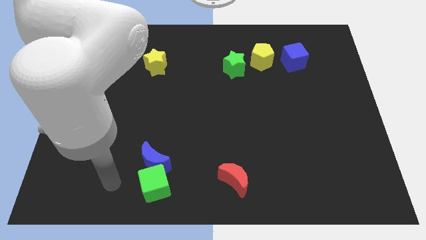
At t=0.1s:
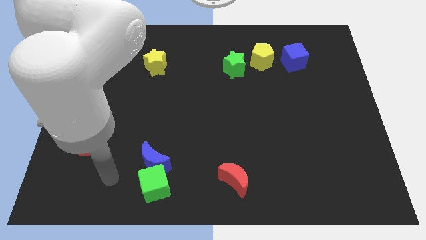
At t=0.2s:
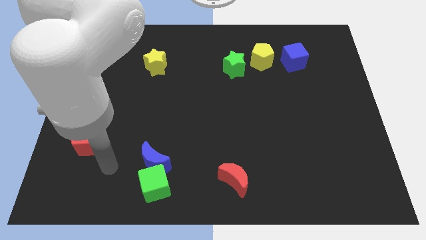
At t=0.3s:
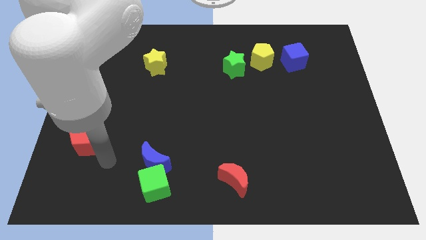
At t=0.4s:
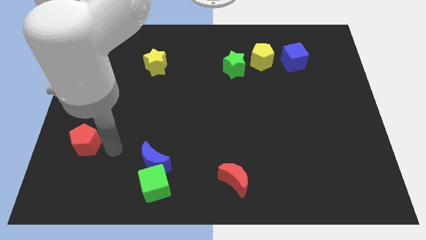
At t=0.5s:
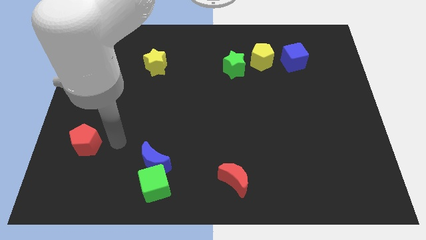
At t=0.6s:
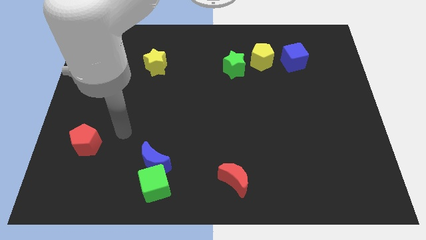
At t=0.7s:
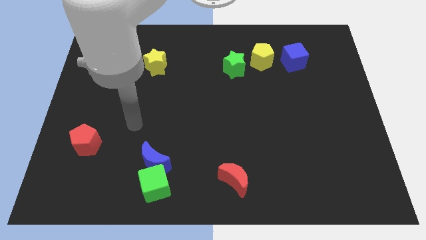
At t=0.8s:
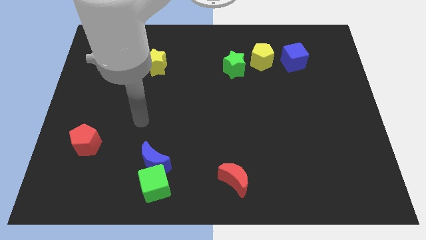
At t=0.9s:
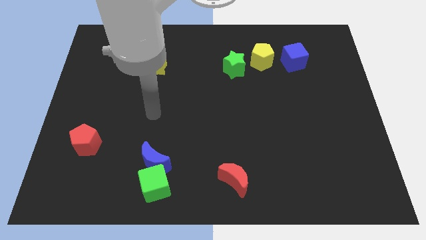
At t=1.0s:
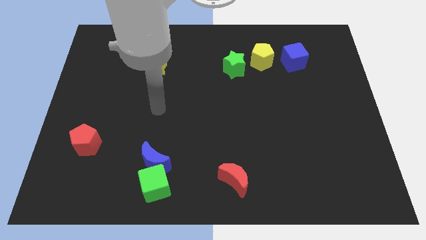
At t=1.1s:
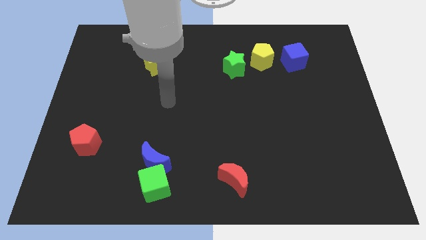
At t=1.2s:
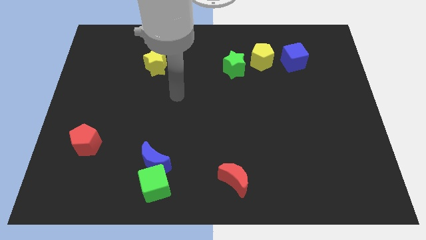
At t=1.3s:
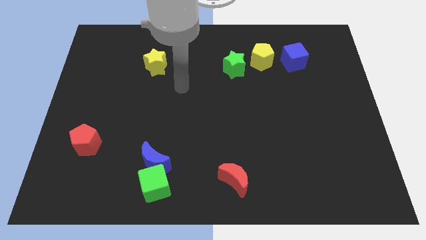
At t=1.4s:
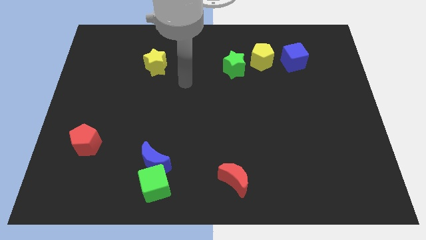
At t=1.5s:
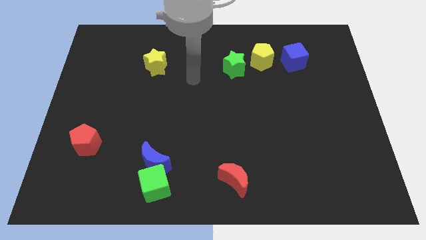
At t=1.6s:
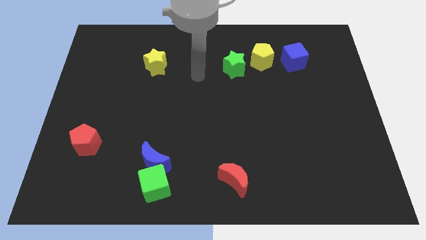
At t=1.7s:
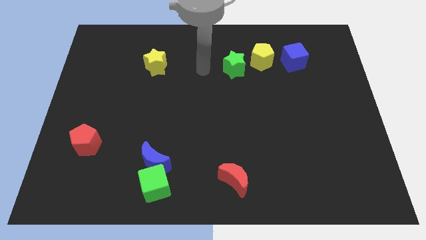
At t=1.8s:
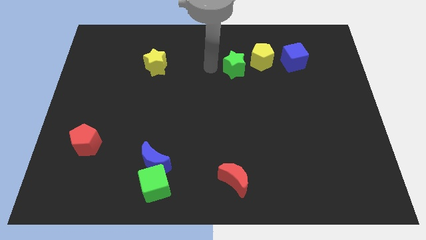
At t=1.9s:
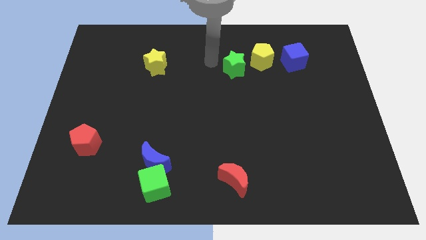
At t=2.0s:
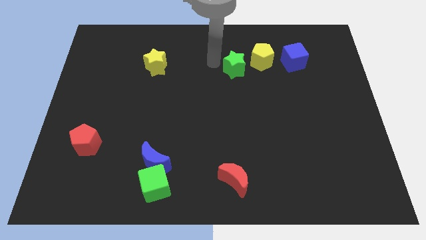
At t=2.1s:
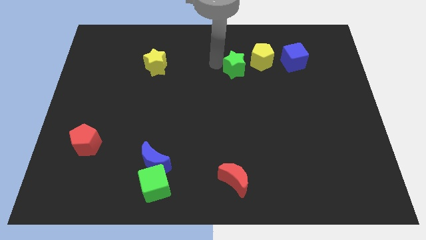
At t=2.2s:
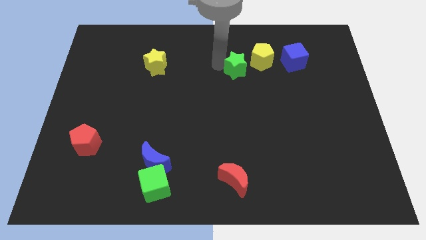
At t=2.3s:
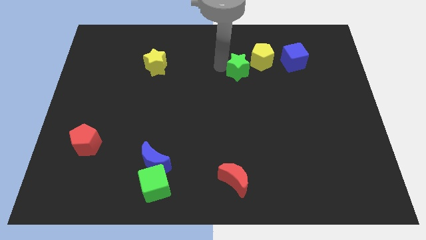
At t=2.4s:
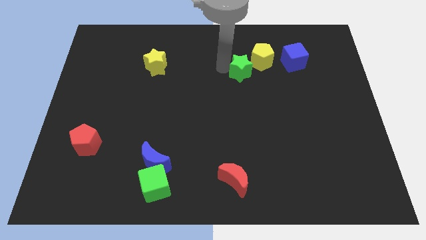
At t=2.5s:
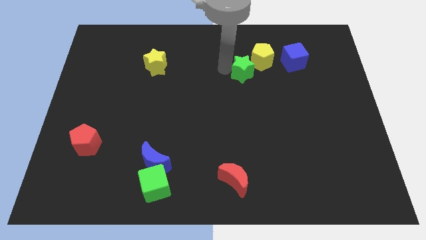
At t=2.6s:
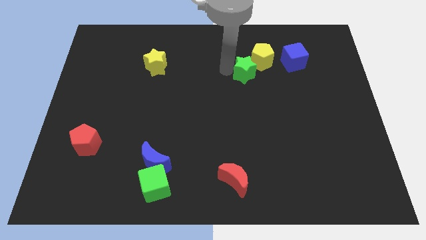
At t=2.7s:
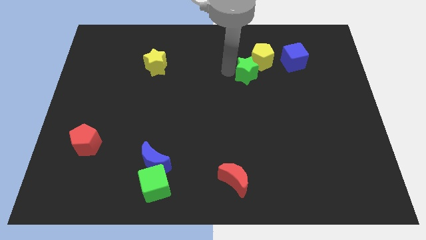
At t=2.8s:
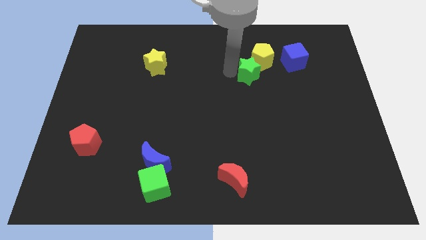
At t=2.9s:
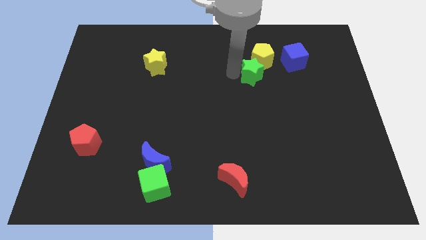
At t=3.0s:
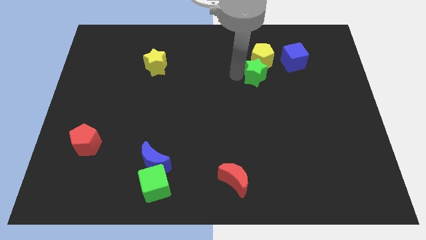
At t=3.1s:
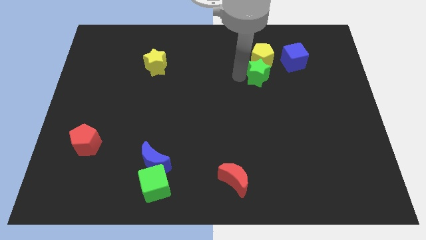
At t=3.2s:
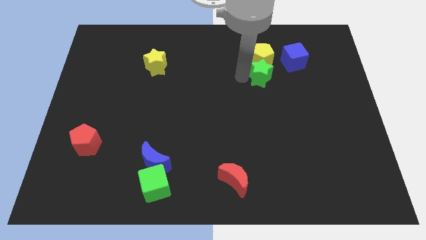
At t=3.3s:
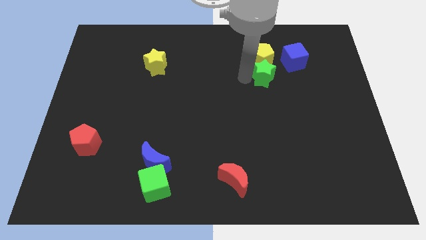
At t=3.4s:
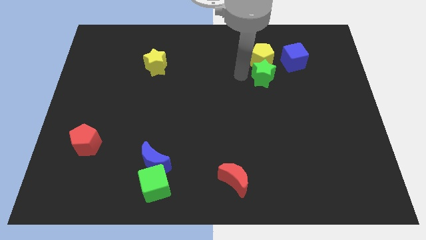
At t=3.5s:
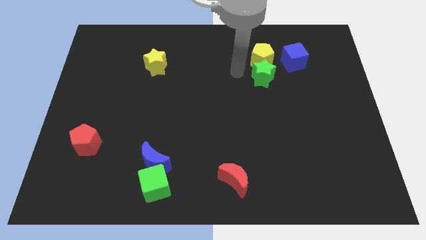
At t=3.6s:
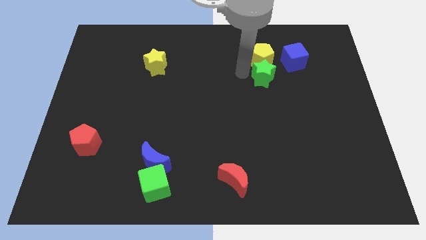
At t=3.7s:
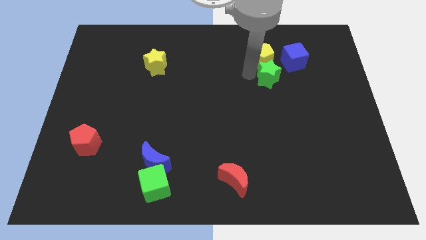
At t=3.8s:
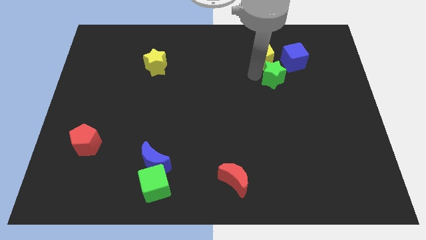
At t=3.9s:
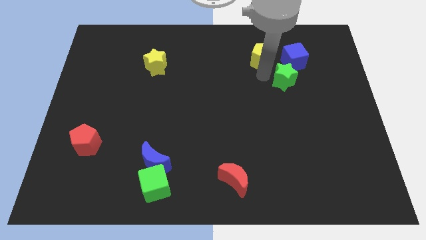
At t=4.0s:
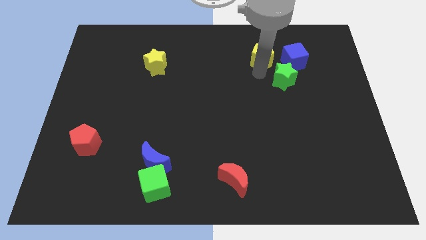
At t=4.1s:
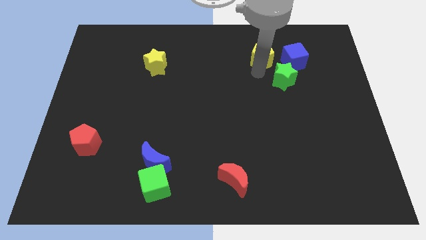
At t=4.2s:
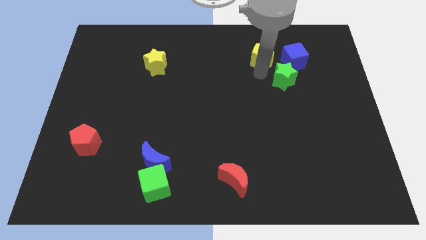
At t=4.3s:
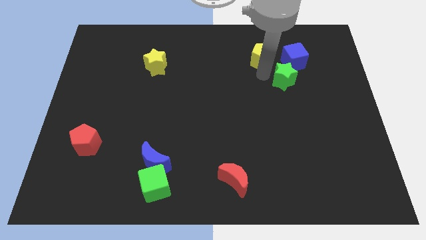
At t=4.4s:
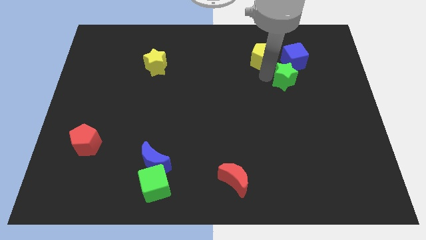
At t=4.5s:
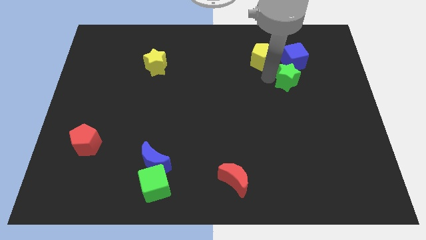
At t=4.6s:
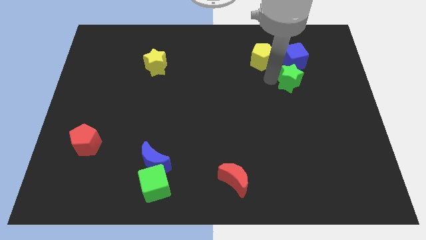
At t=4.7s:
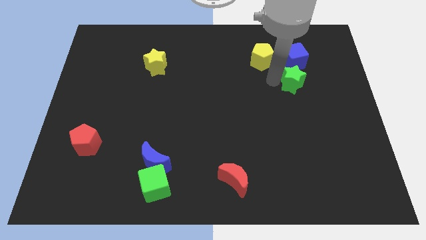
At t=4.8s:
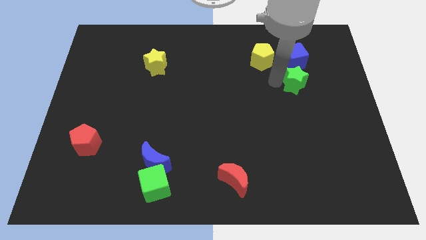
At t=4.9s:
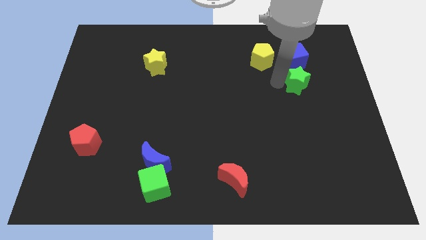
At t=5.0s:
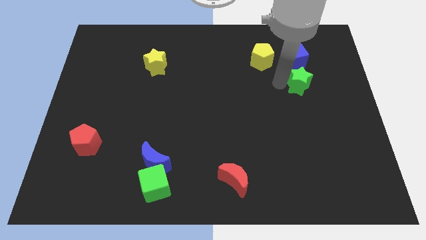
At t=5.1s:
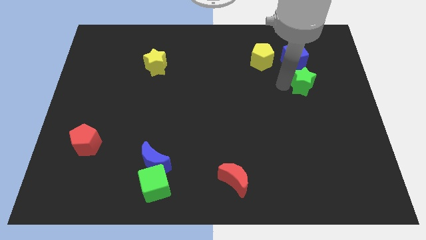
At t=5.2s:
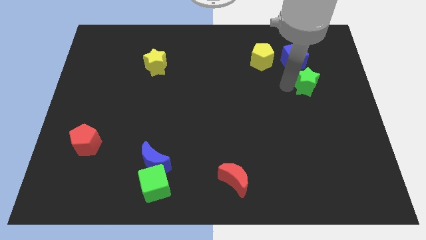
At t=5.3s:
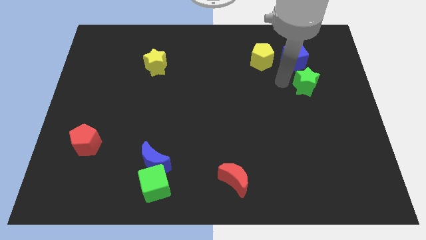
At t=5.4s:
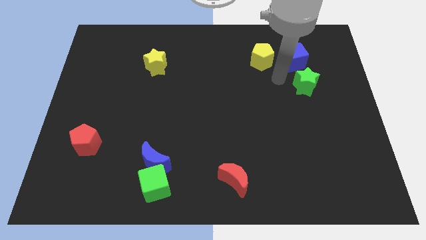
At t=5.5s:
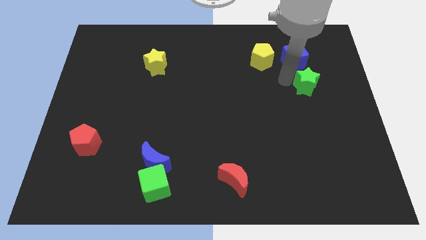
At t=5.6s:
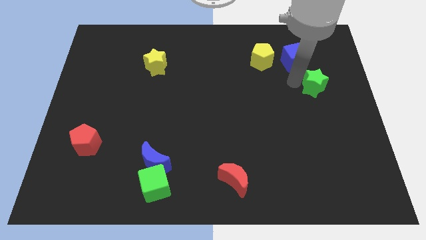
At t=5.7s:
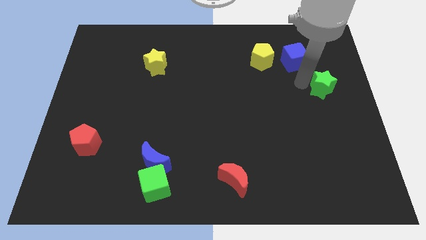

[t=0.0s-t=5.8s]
put the green star to the right side

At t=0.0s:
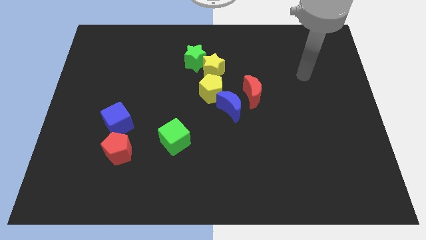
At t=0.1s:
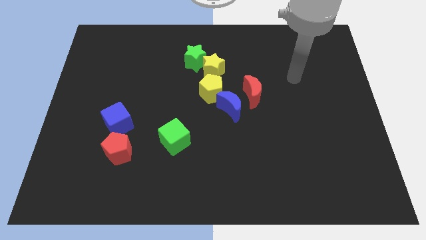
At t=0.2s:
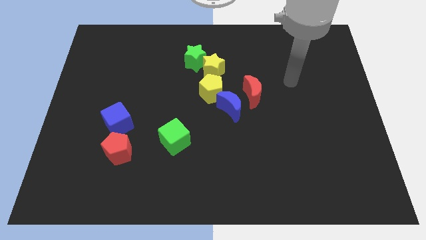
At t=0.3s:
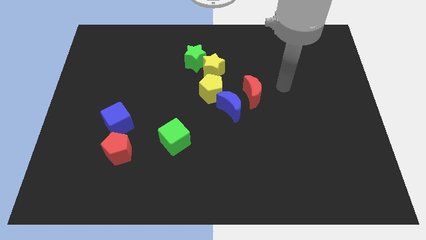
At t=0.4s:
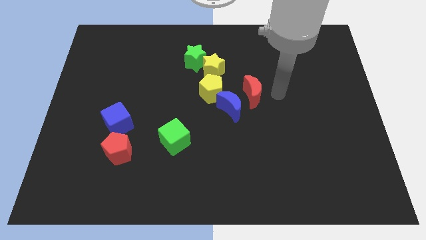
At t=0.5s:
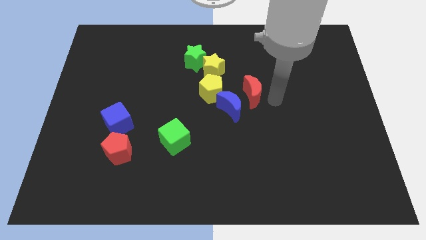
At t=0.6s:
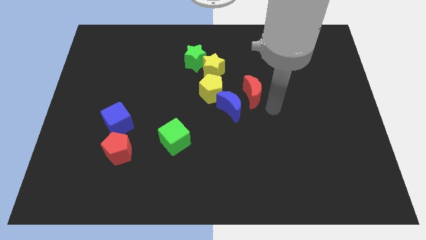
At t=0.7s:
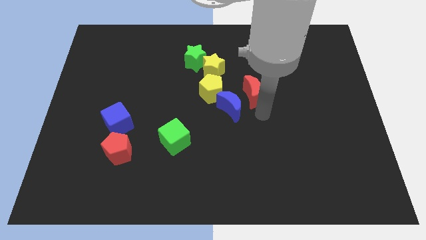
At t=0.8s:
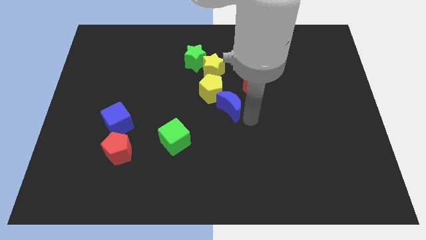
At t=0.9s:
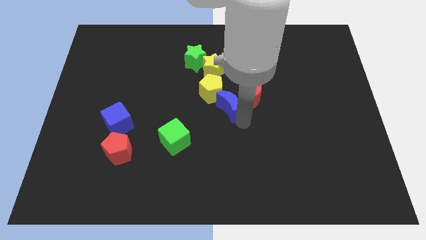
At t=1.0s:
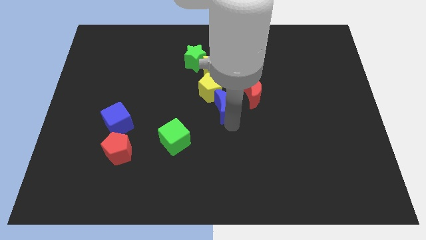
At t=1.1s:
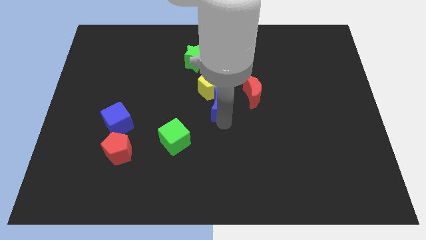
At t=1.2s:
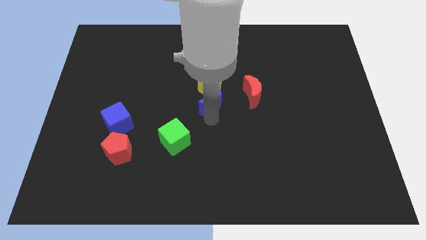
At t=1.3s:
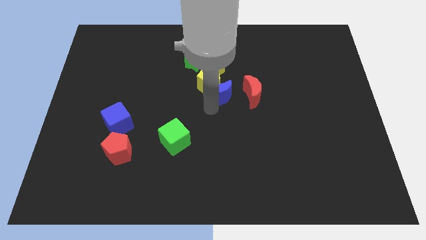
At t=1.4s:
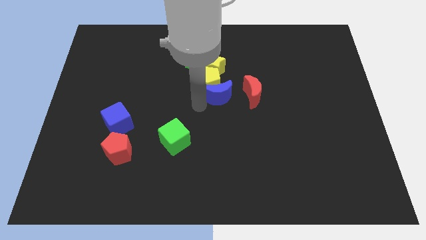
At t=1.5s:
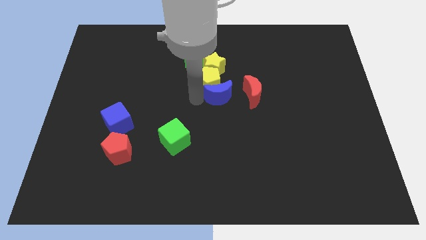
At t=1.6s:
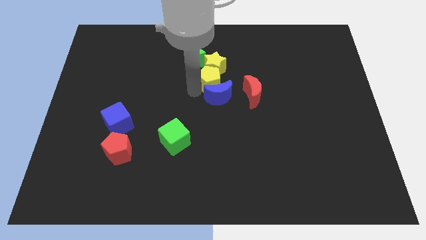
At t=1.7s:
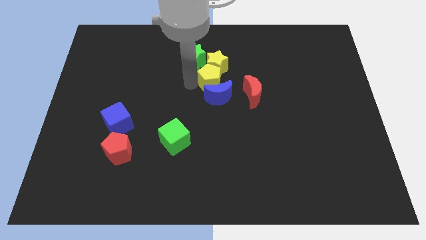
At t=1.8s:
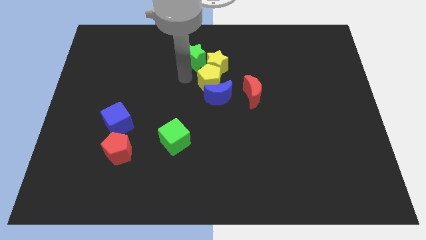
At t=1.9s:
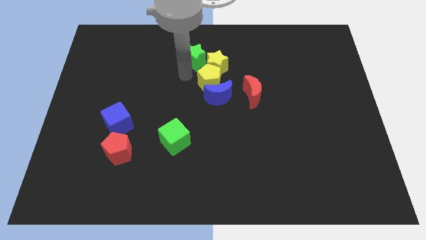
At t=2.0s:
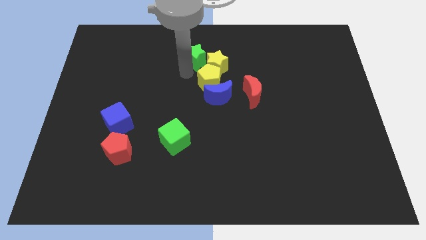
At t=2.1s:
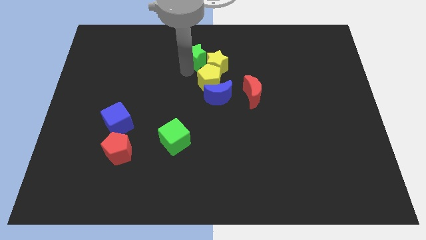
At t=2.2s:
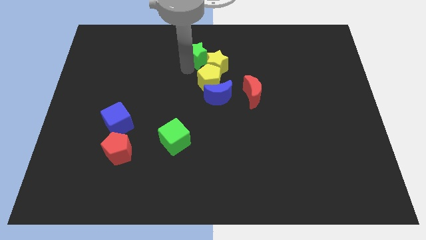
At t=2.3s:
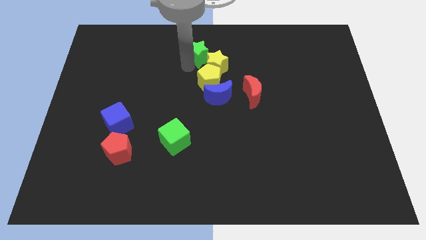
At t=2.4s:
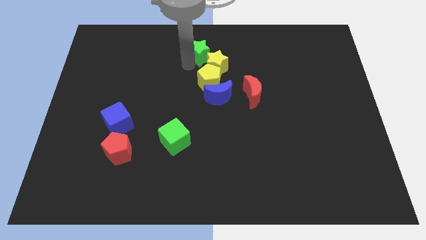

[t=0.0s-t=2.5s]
slide the green star to the top side
